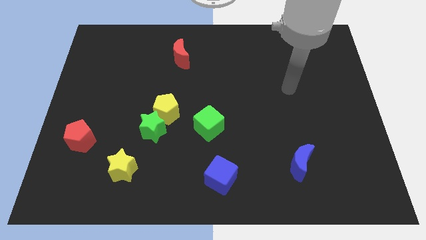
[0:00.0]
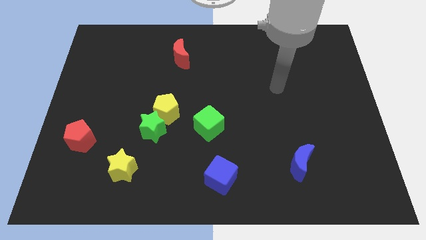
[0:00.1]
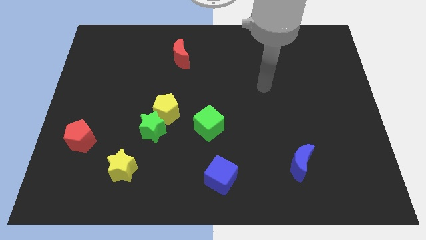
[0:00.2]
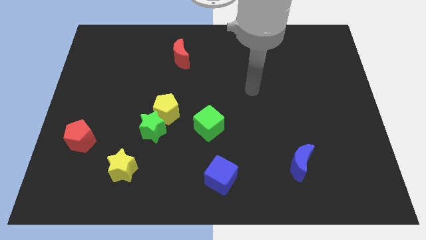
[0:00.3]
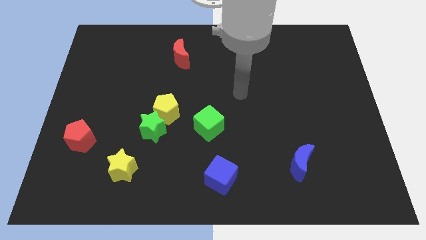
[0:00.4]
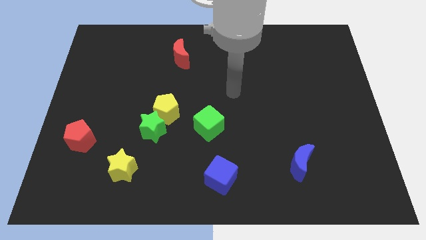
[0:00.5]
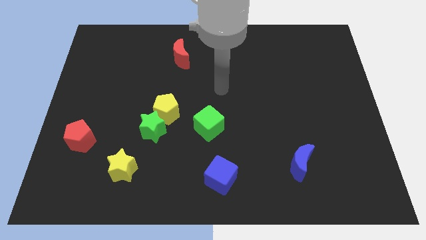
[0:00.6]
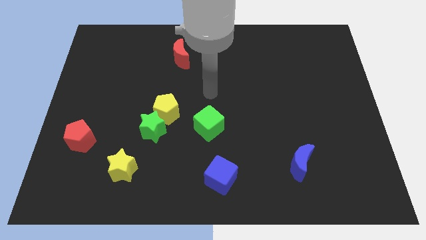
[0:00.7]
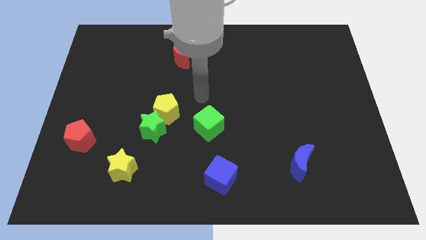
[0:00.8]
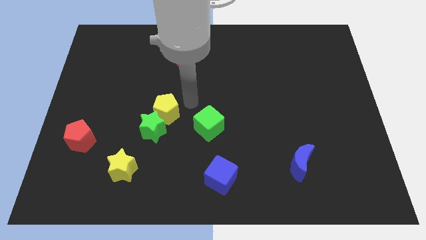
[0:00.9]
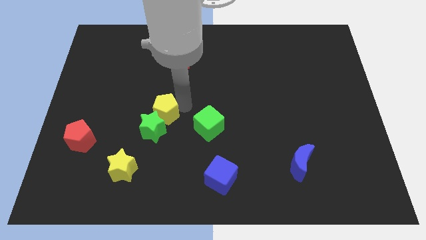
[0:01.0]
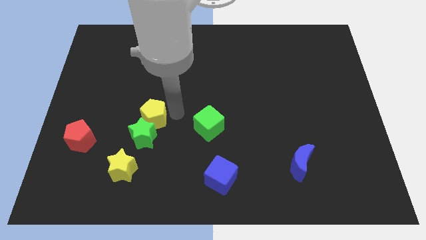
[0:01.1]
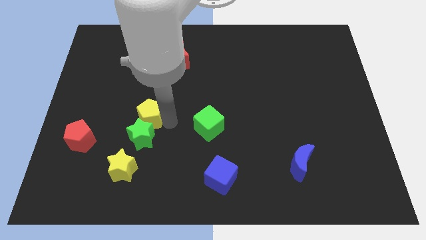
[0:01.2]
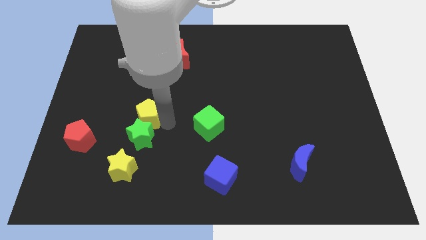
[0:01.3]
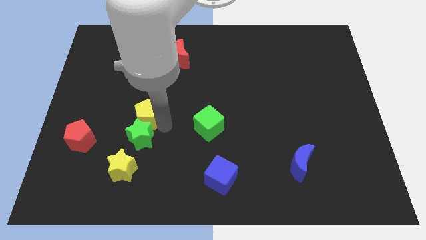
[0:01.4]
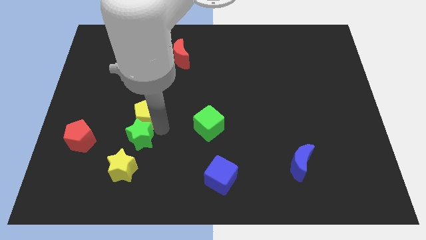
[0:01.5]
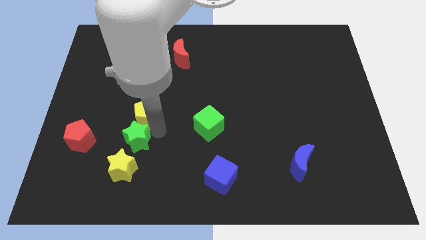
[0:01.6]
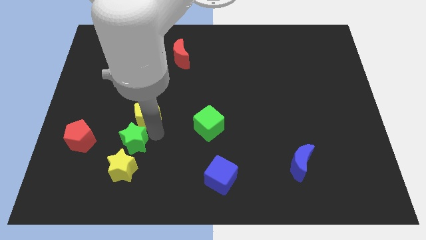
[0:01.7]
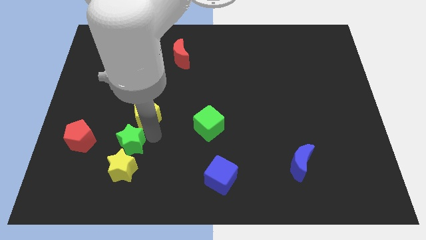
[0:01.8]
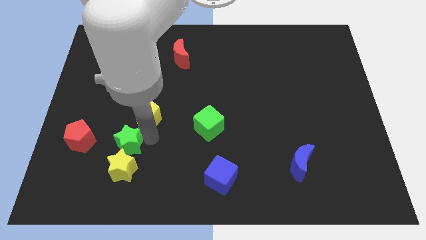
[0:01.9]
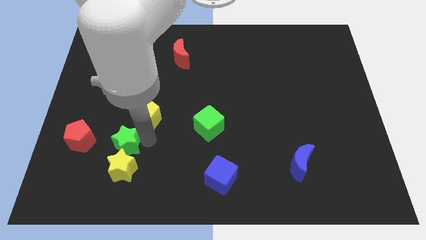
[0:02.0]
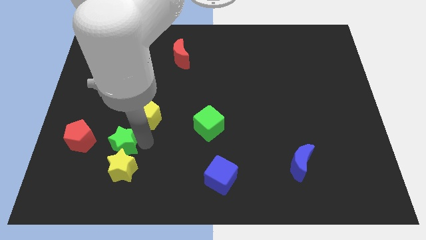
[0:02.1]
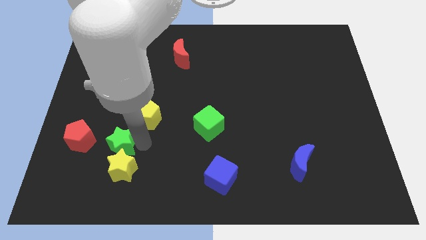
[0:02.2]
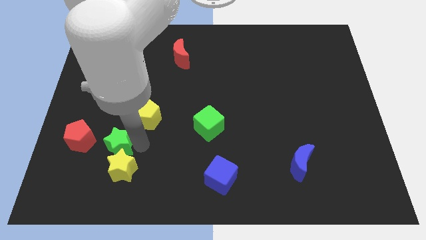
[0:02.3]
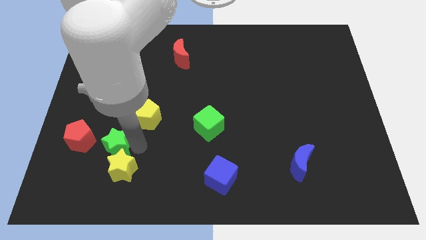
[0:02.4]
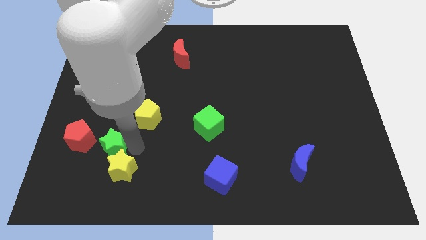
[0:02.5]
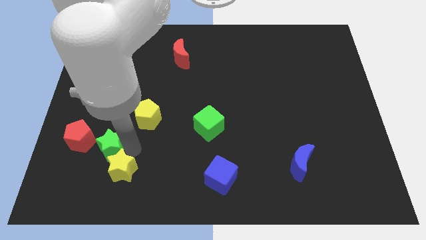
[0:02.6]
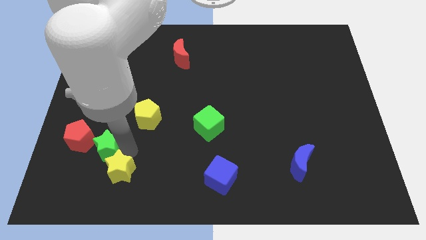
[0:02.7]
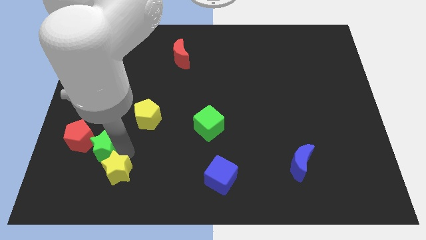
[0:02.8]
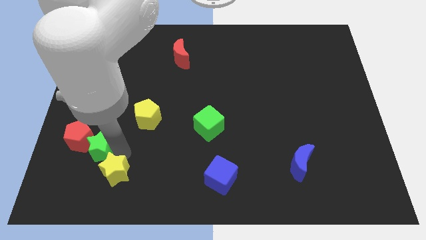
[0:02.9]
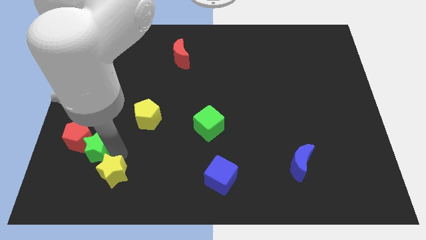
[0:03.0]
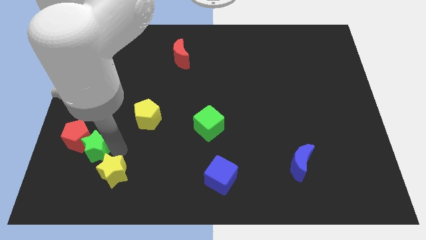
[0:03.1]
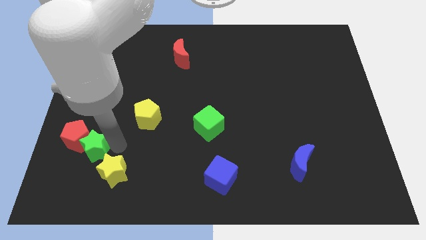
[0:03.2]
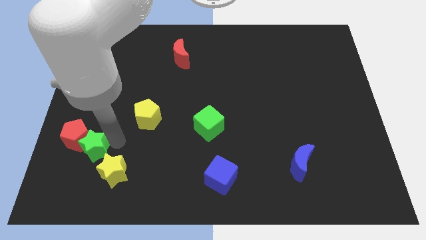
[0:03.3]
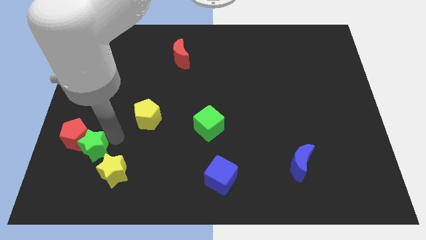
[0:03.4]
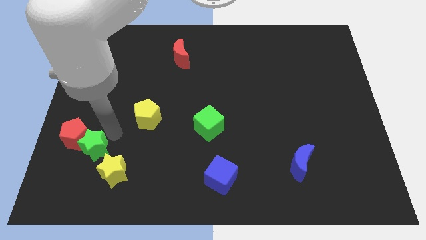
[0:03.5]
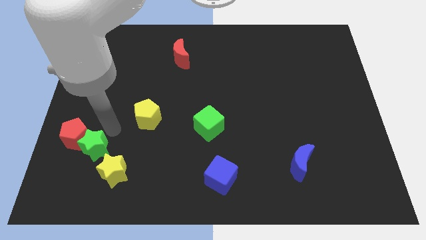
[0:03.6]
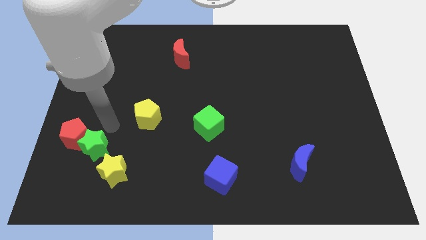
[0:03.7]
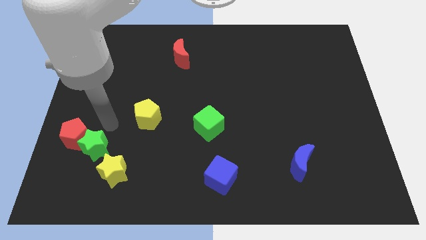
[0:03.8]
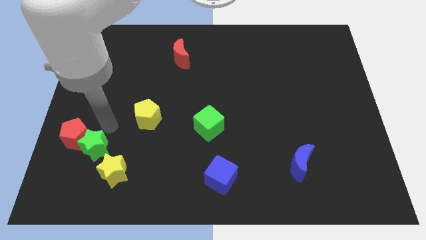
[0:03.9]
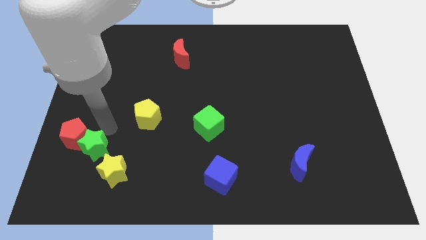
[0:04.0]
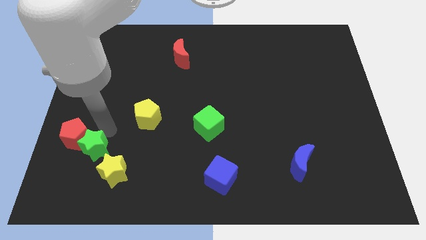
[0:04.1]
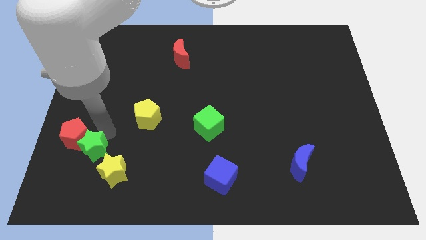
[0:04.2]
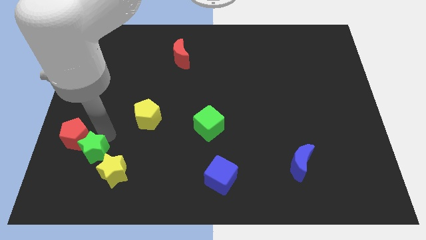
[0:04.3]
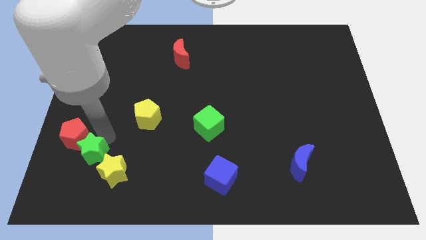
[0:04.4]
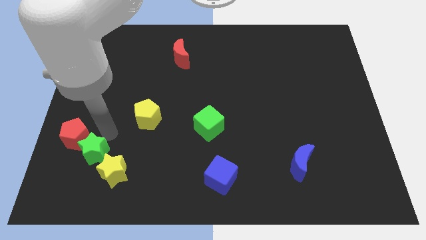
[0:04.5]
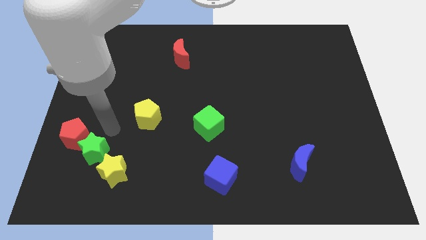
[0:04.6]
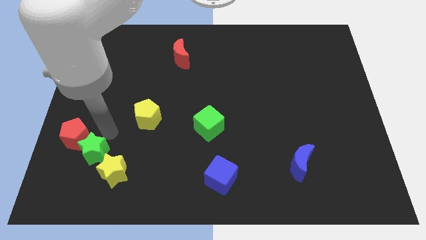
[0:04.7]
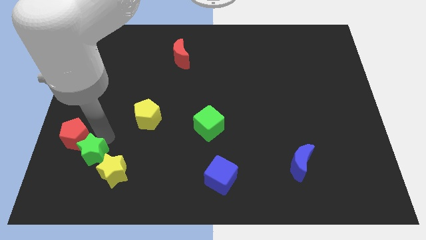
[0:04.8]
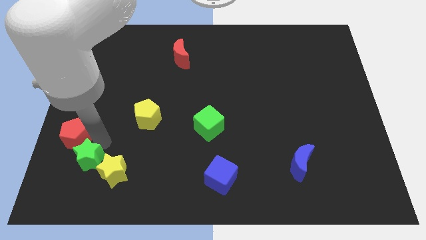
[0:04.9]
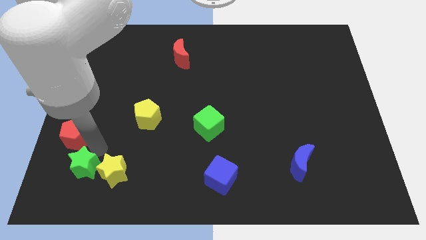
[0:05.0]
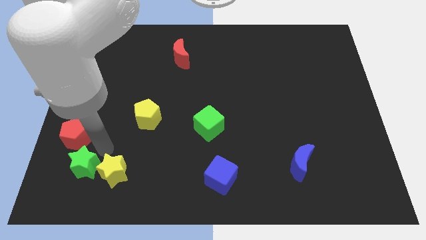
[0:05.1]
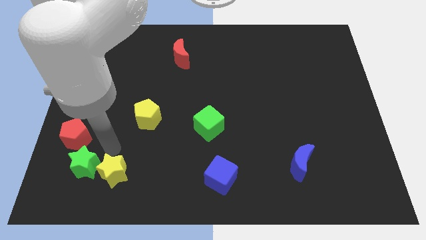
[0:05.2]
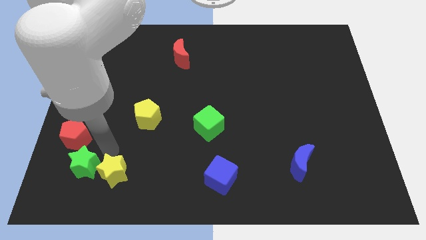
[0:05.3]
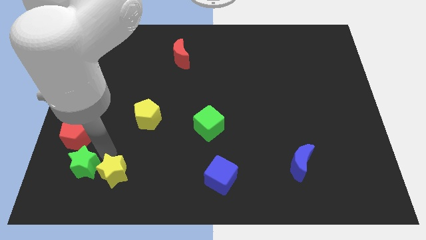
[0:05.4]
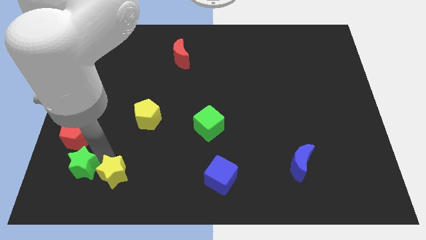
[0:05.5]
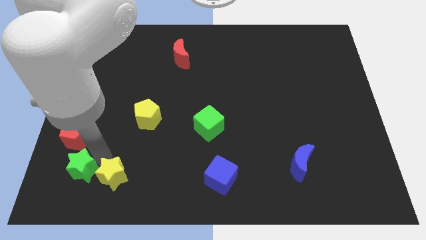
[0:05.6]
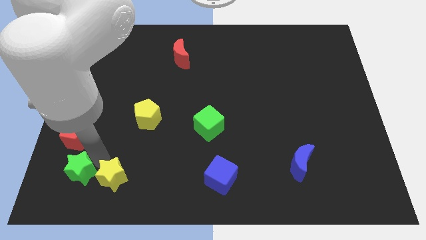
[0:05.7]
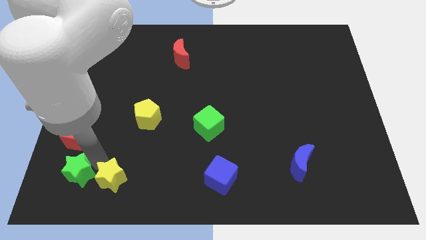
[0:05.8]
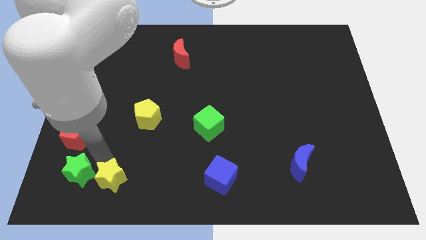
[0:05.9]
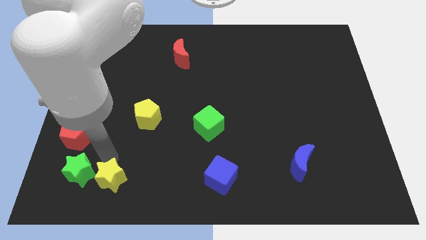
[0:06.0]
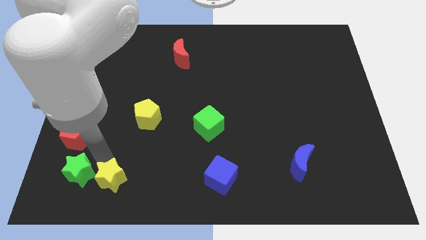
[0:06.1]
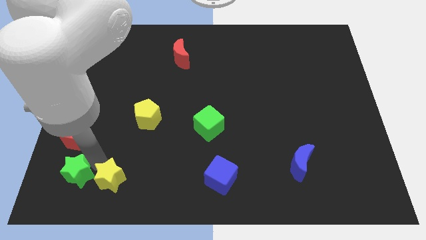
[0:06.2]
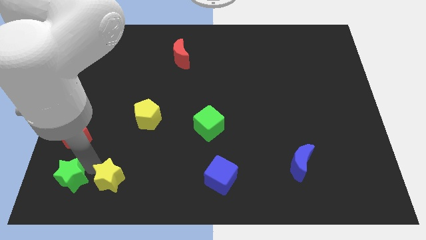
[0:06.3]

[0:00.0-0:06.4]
slide the green star to the bottom left corner

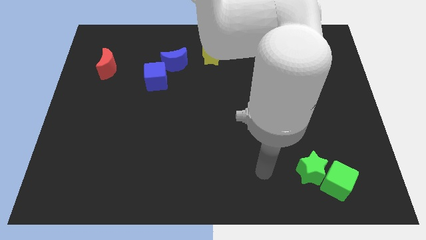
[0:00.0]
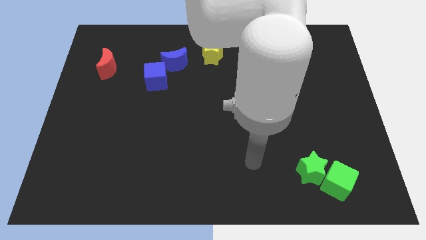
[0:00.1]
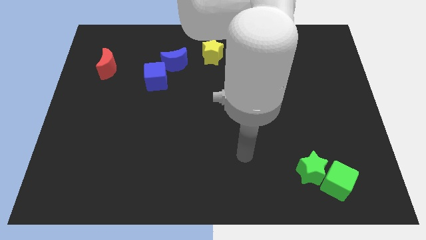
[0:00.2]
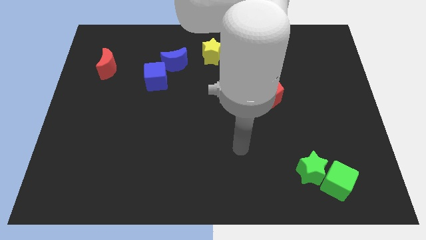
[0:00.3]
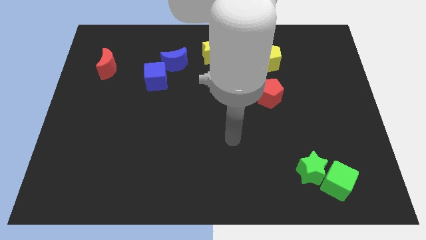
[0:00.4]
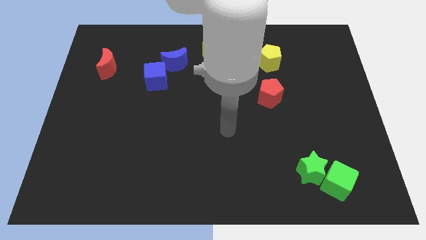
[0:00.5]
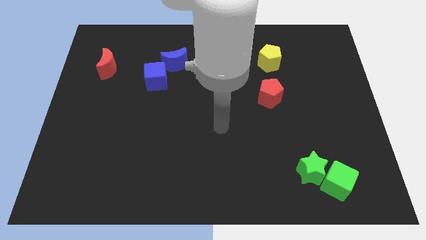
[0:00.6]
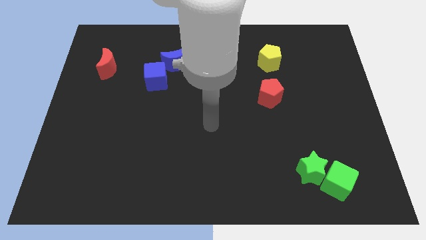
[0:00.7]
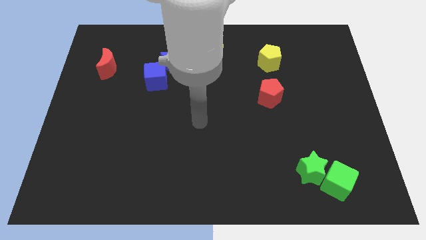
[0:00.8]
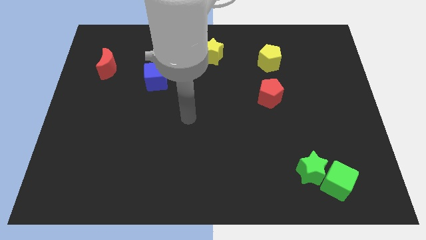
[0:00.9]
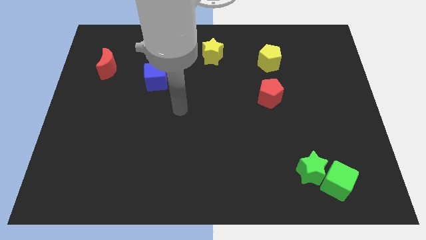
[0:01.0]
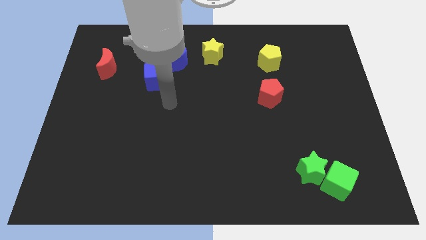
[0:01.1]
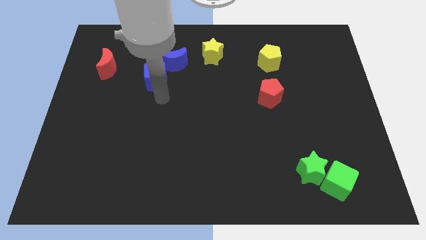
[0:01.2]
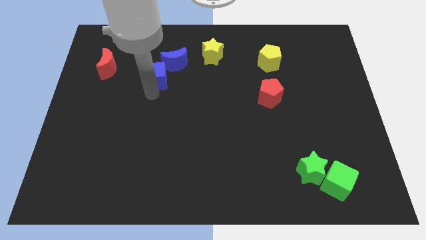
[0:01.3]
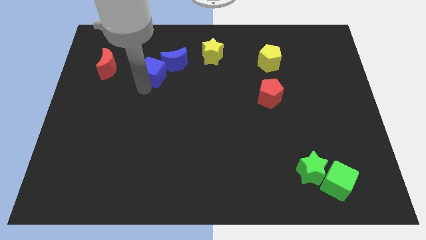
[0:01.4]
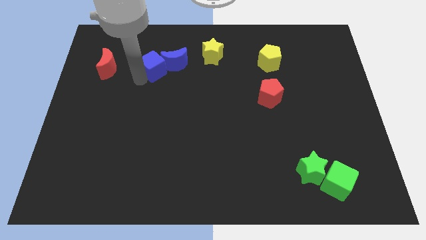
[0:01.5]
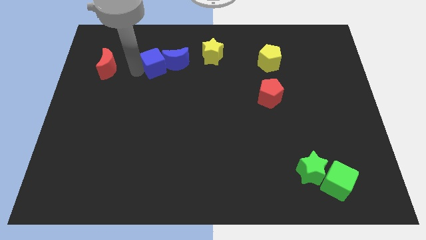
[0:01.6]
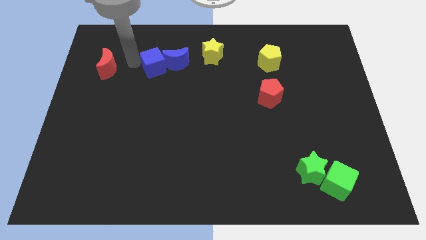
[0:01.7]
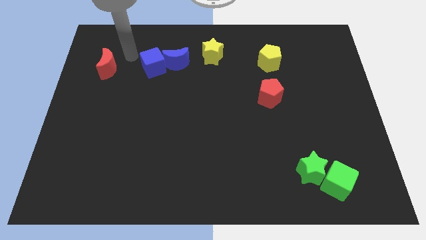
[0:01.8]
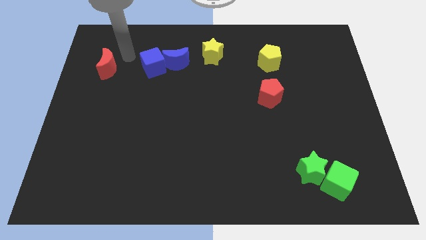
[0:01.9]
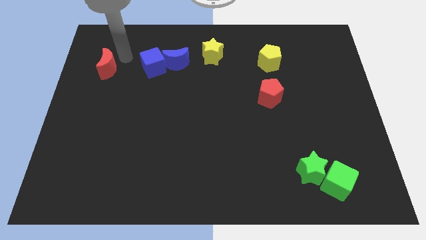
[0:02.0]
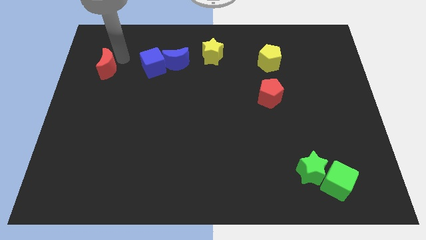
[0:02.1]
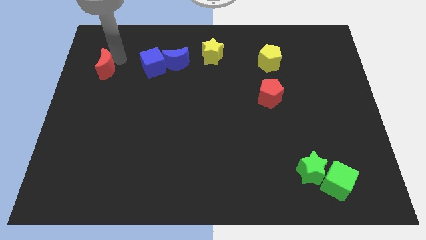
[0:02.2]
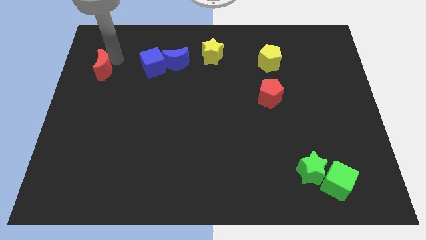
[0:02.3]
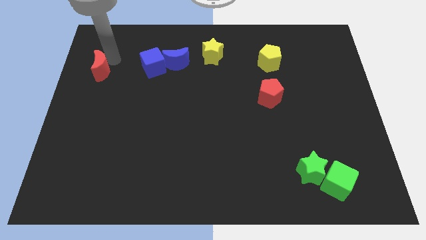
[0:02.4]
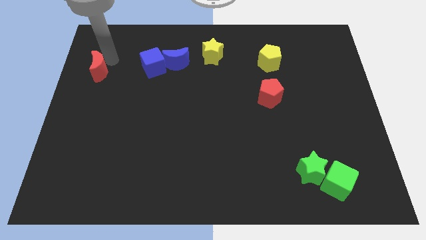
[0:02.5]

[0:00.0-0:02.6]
push the red moon to the left side
